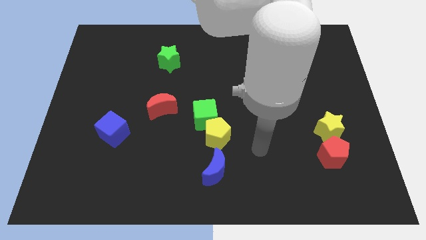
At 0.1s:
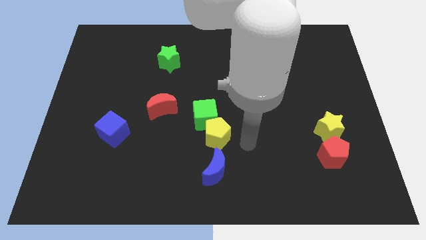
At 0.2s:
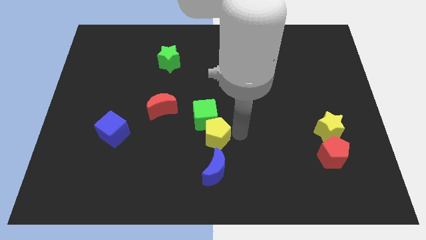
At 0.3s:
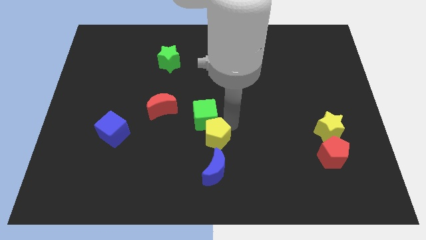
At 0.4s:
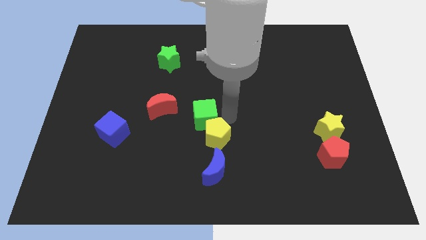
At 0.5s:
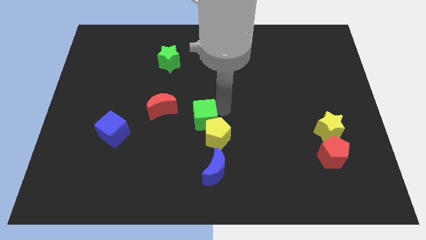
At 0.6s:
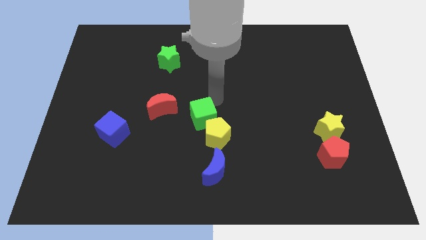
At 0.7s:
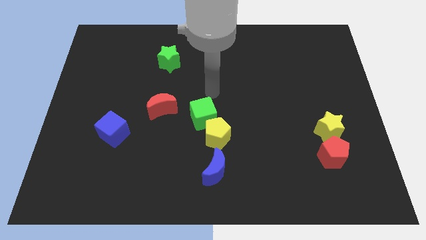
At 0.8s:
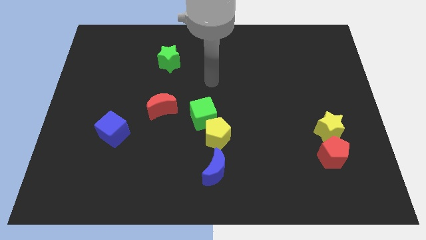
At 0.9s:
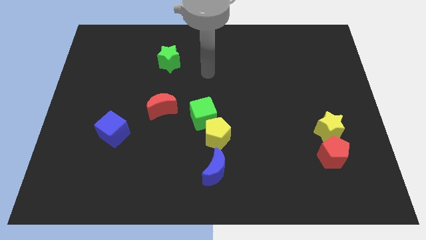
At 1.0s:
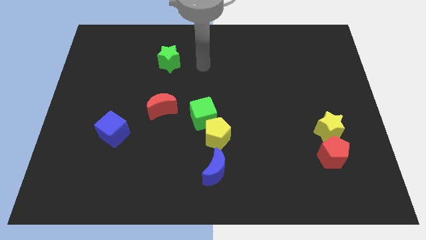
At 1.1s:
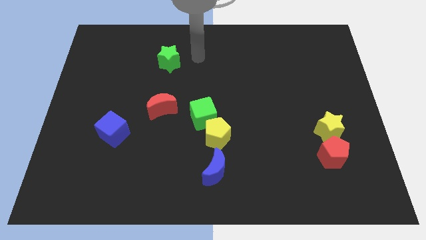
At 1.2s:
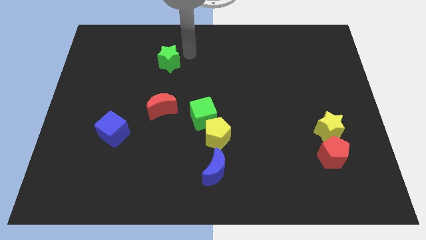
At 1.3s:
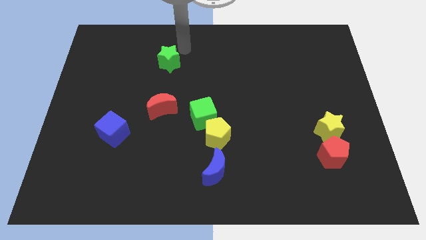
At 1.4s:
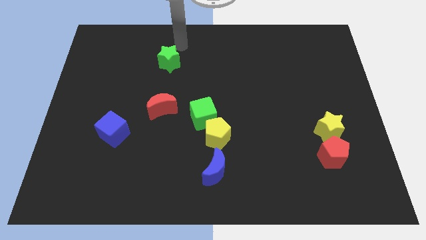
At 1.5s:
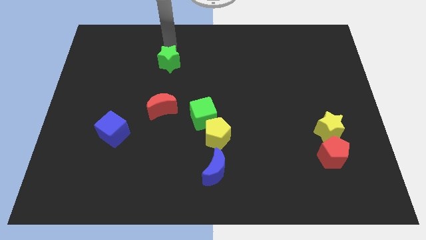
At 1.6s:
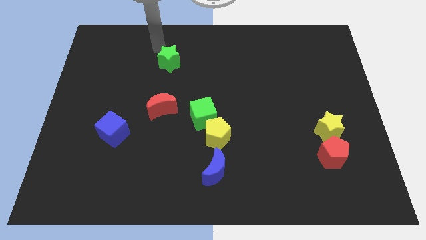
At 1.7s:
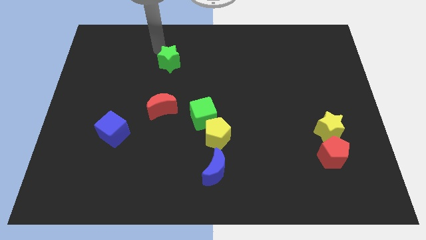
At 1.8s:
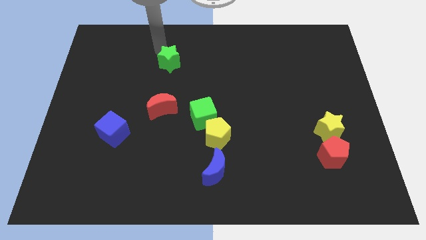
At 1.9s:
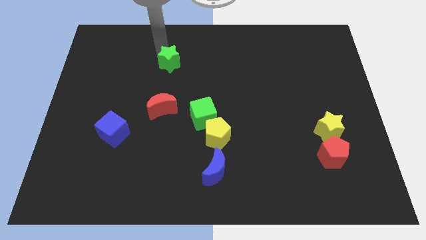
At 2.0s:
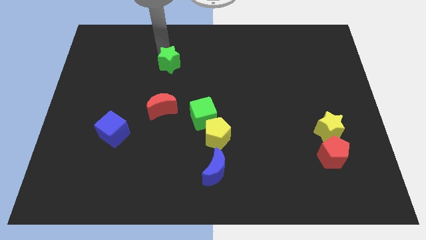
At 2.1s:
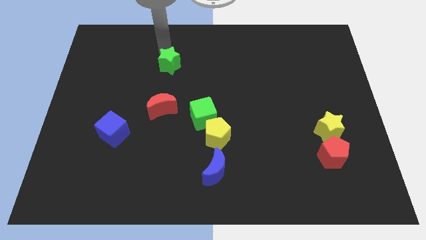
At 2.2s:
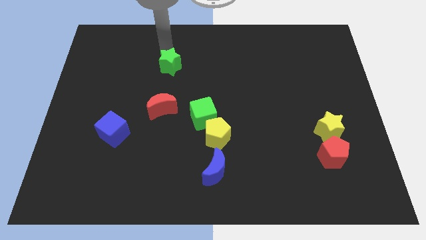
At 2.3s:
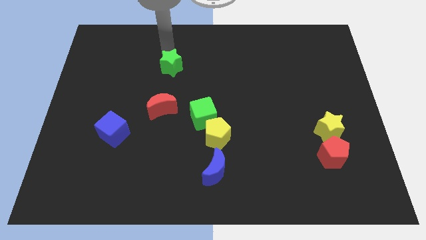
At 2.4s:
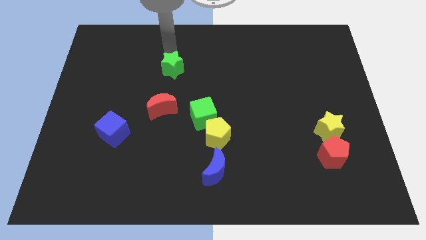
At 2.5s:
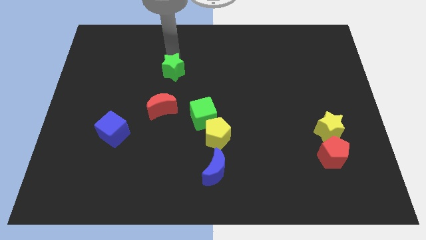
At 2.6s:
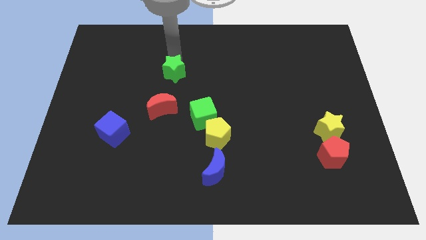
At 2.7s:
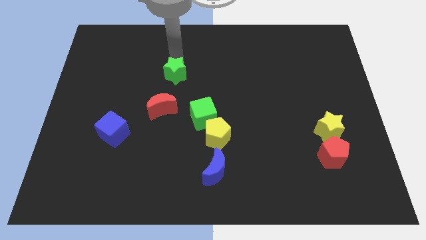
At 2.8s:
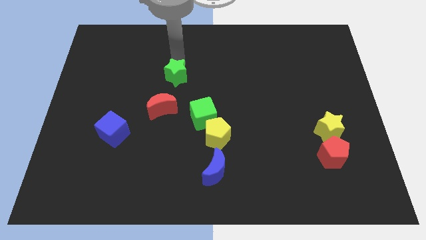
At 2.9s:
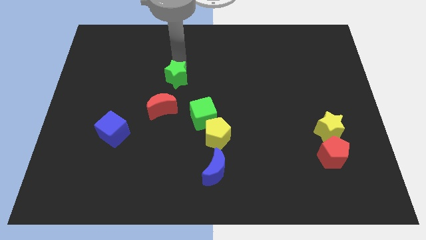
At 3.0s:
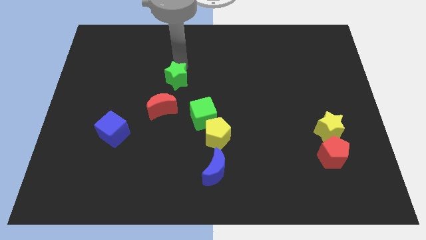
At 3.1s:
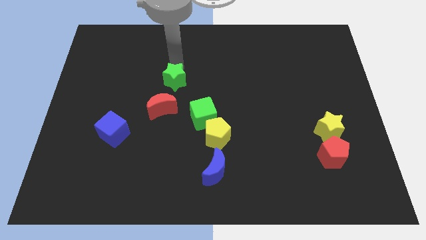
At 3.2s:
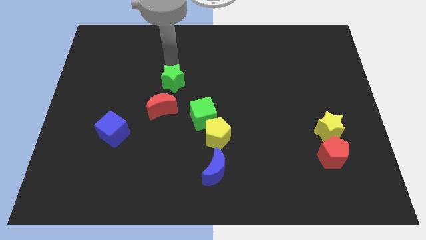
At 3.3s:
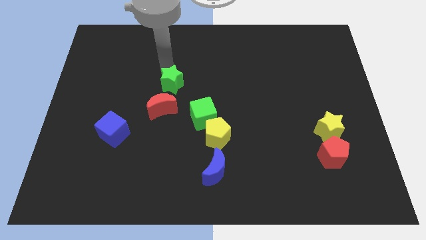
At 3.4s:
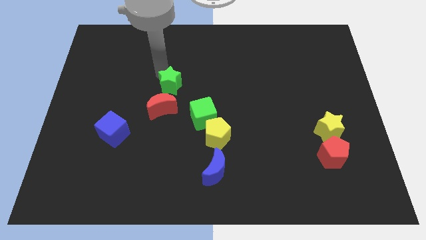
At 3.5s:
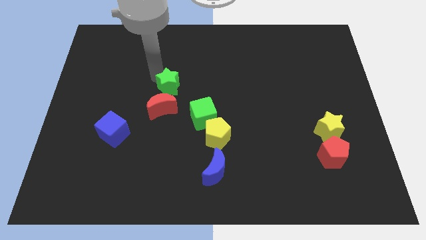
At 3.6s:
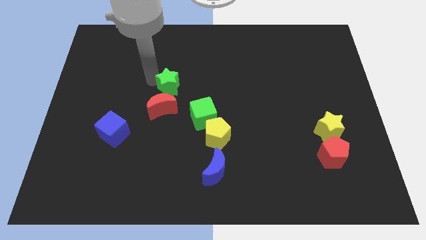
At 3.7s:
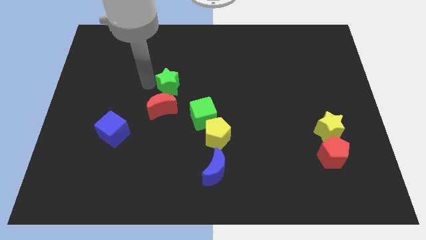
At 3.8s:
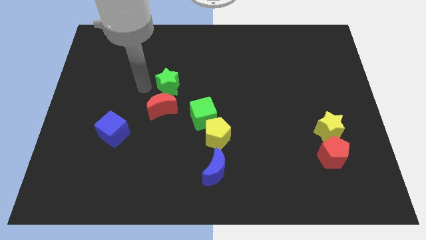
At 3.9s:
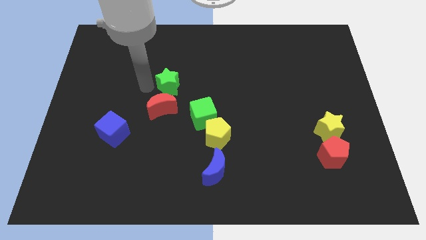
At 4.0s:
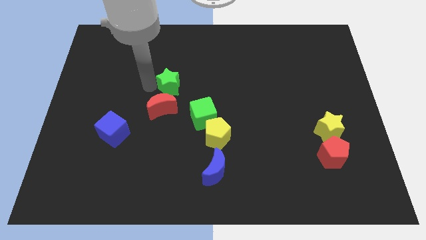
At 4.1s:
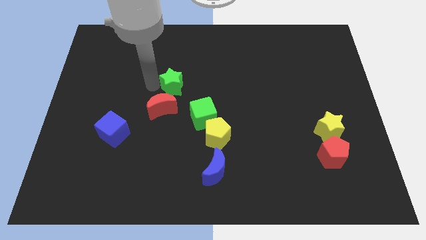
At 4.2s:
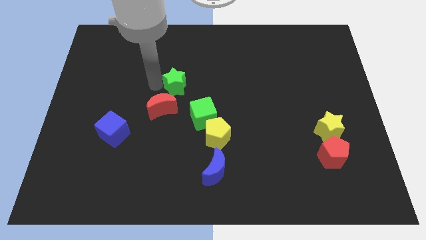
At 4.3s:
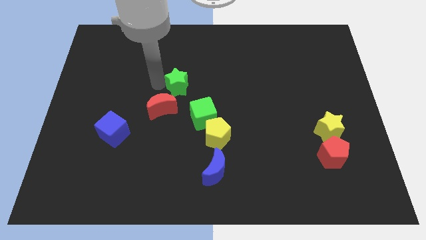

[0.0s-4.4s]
slightly push the green star downwards and to the right

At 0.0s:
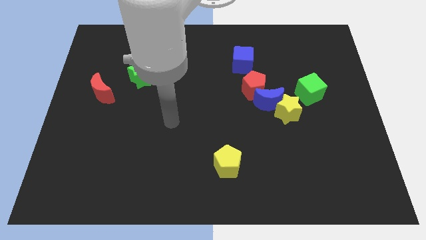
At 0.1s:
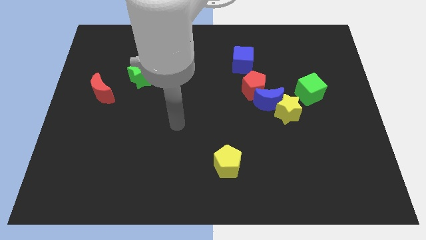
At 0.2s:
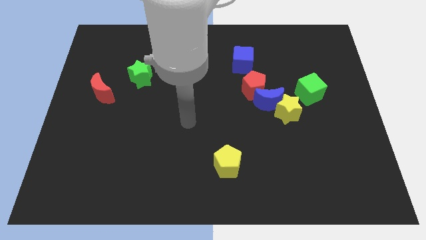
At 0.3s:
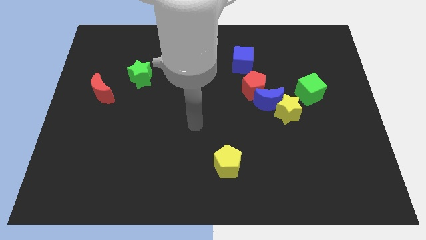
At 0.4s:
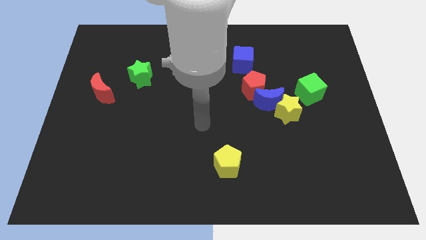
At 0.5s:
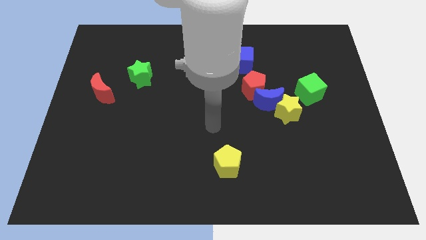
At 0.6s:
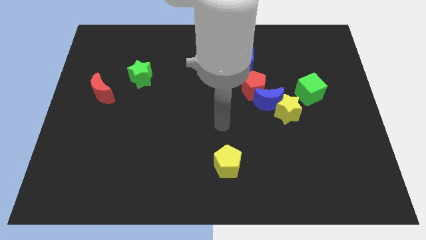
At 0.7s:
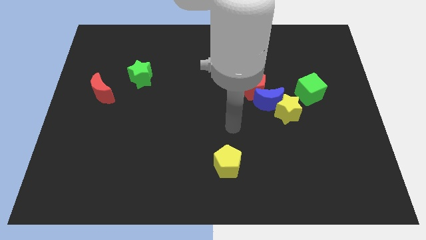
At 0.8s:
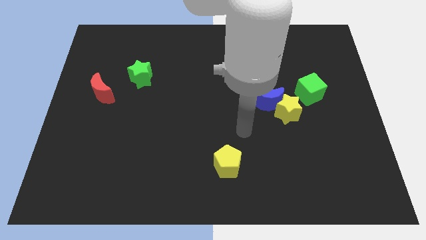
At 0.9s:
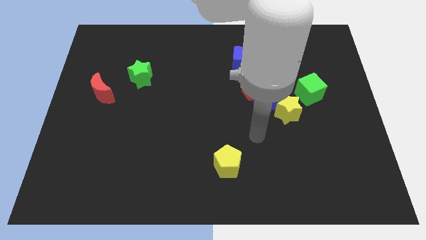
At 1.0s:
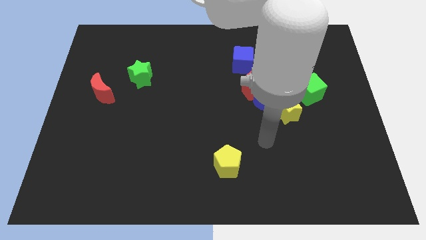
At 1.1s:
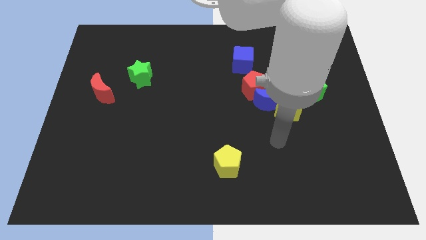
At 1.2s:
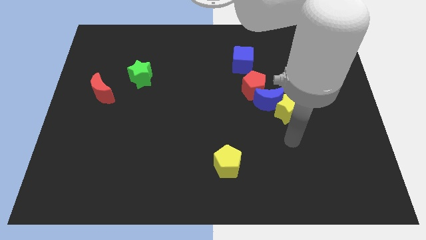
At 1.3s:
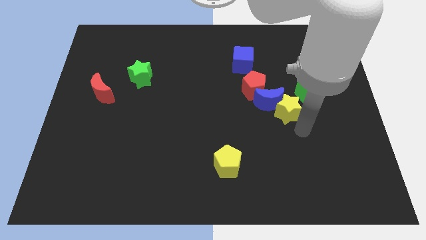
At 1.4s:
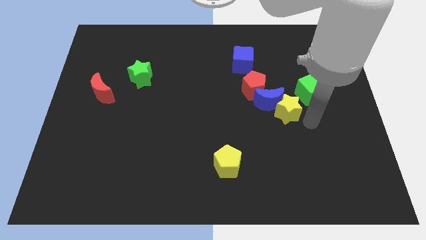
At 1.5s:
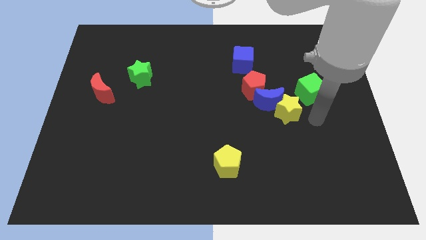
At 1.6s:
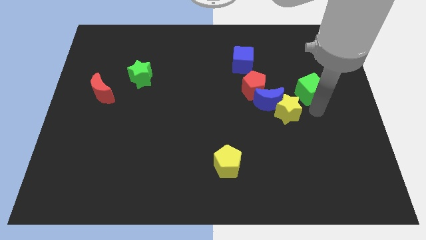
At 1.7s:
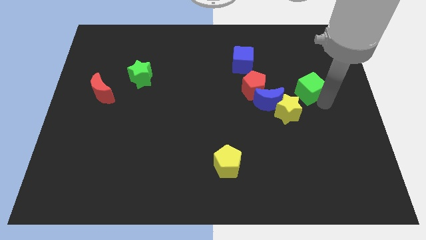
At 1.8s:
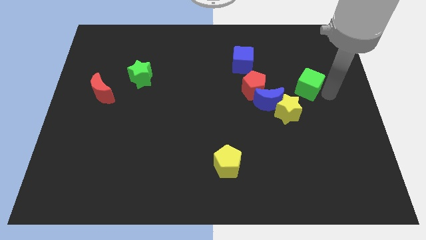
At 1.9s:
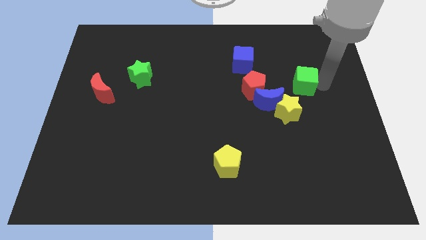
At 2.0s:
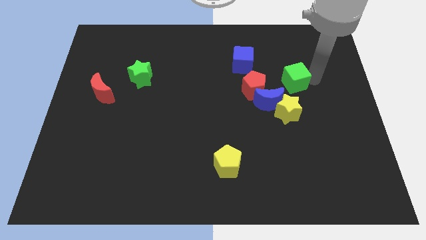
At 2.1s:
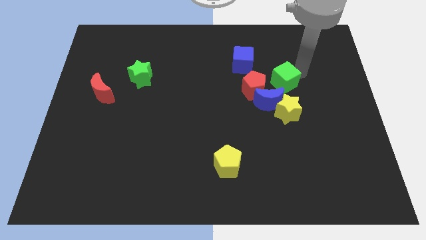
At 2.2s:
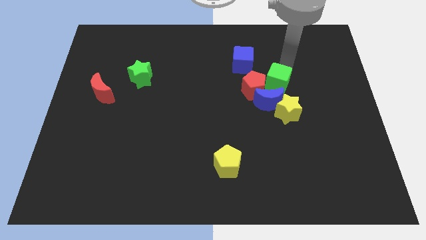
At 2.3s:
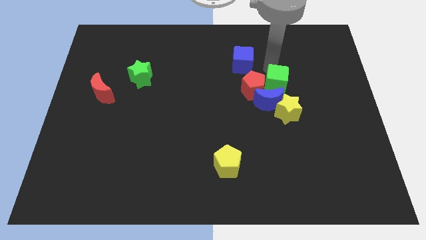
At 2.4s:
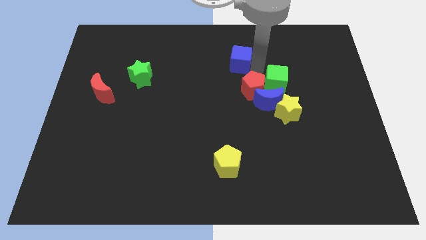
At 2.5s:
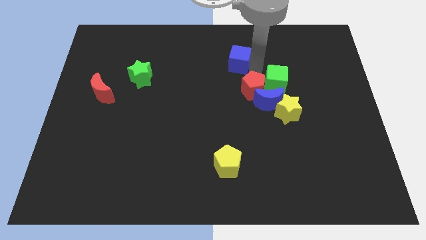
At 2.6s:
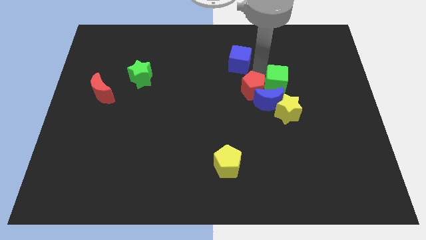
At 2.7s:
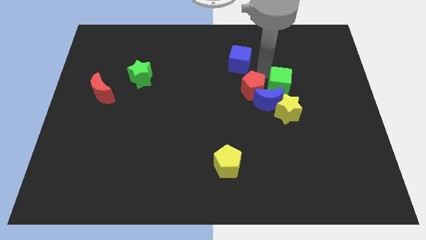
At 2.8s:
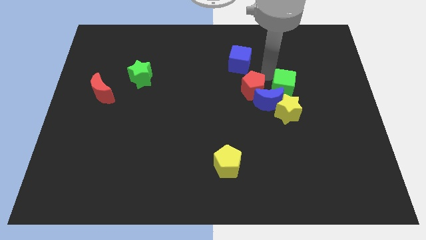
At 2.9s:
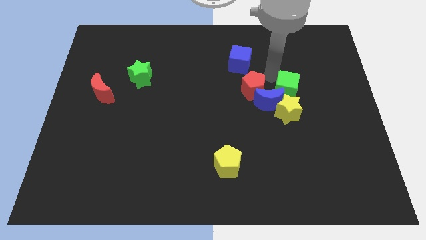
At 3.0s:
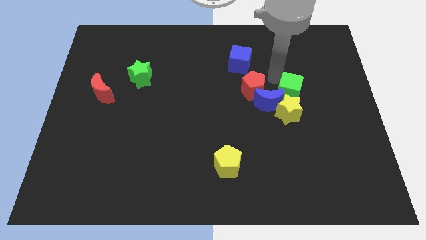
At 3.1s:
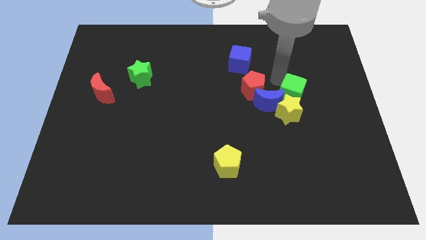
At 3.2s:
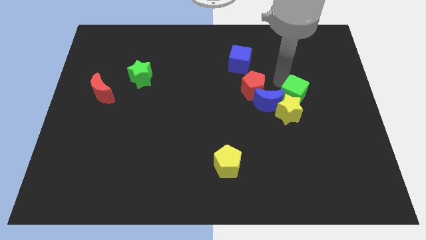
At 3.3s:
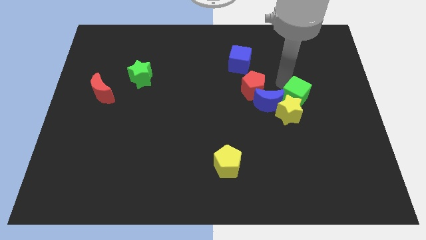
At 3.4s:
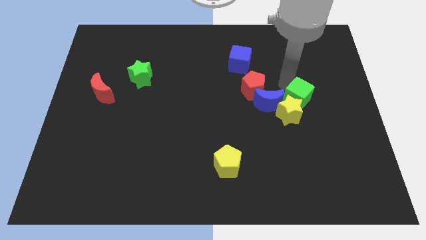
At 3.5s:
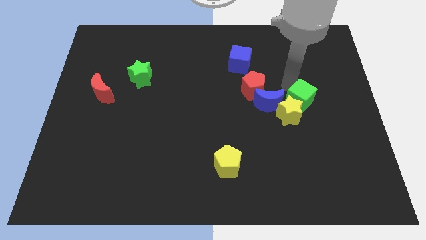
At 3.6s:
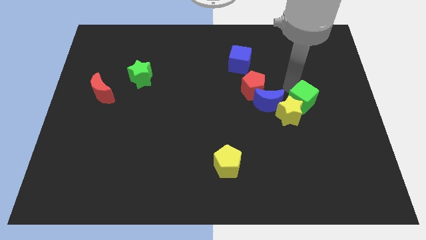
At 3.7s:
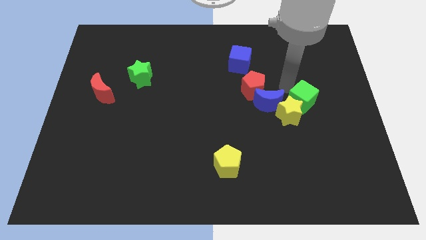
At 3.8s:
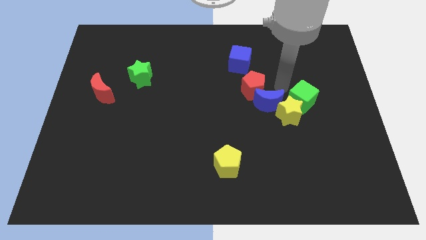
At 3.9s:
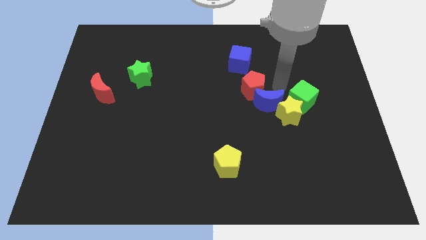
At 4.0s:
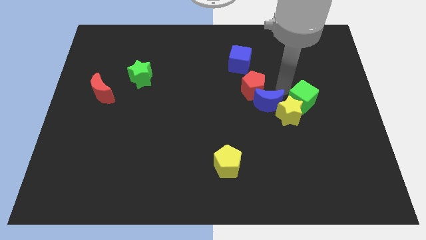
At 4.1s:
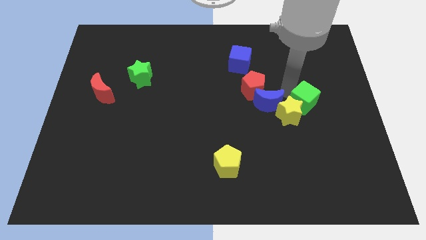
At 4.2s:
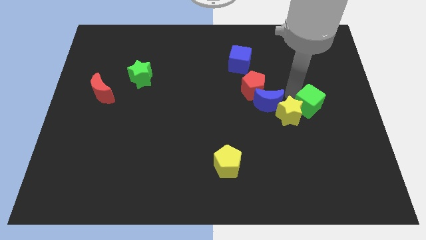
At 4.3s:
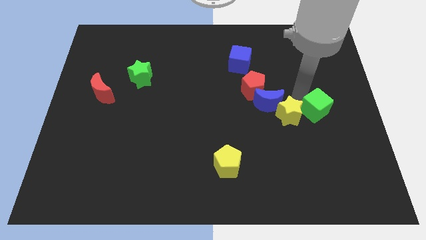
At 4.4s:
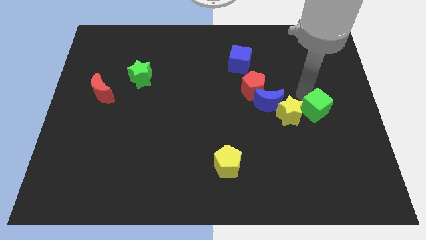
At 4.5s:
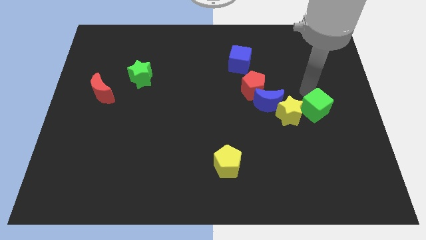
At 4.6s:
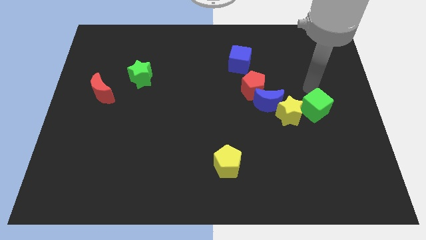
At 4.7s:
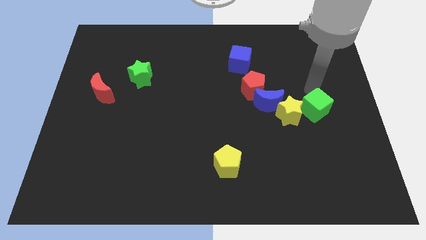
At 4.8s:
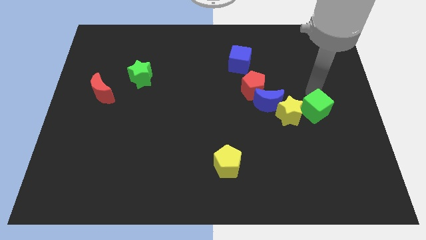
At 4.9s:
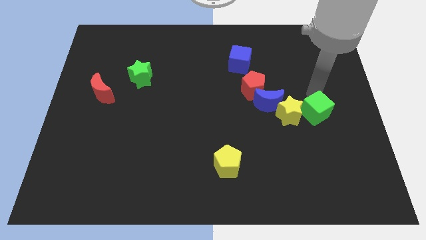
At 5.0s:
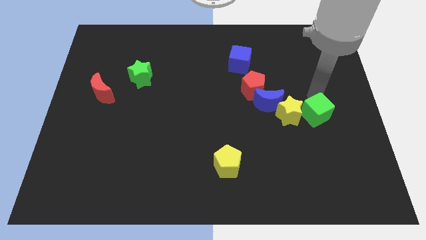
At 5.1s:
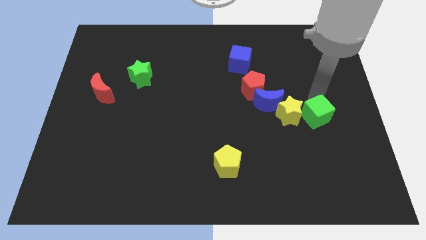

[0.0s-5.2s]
slightly move the green cube downwards
